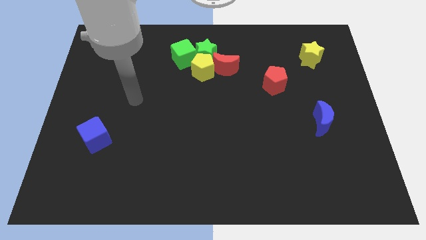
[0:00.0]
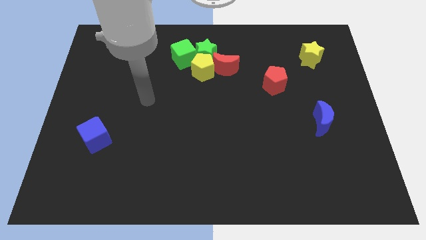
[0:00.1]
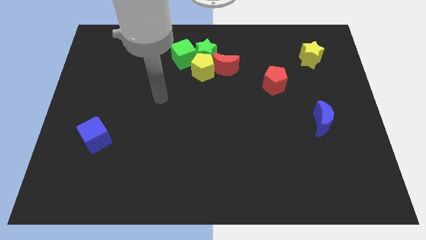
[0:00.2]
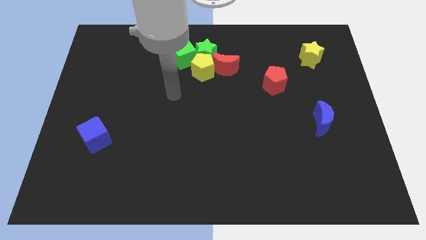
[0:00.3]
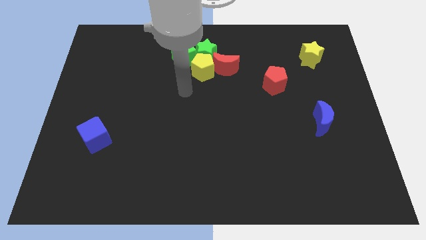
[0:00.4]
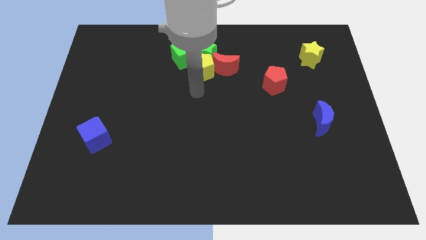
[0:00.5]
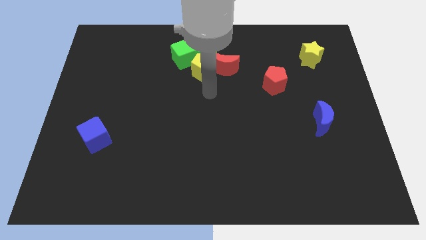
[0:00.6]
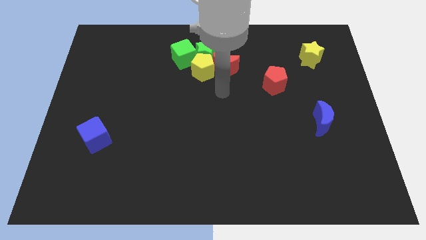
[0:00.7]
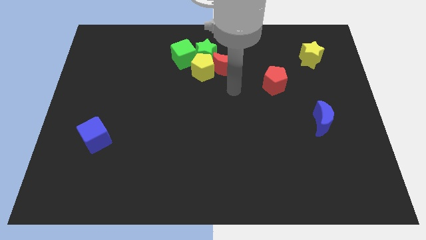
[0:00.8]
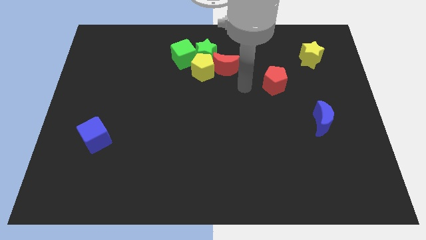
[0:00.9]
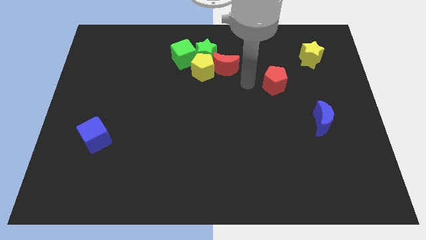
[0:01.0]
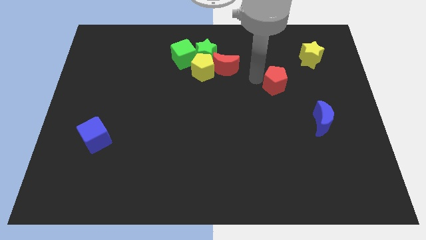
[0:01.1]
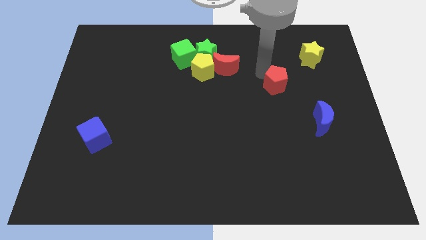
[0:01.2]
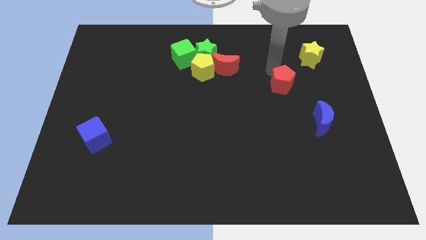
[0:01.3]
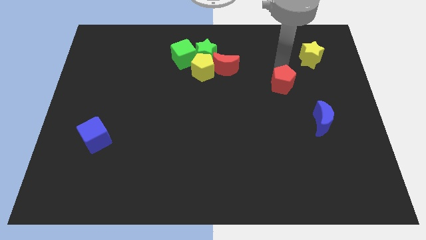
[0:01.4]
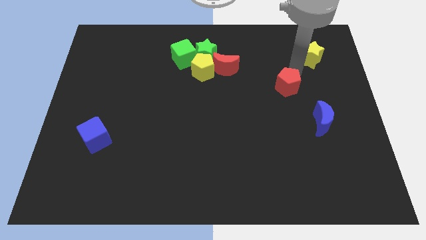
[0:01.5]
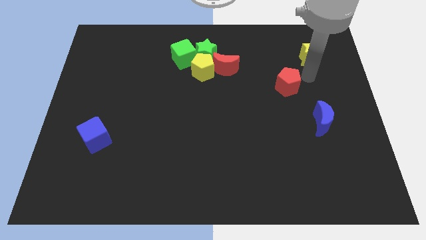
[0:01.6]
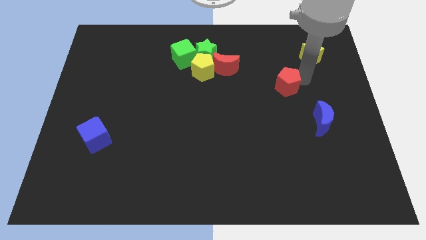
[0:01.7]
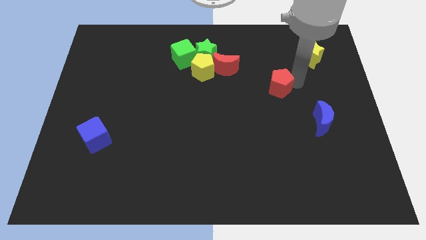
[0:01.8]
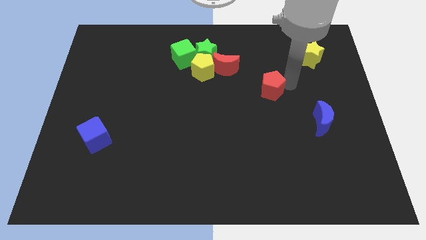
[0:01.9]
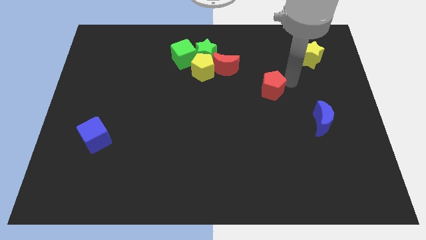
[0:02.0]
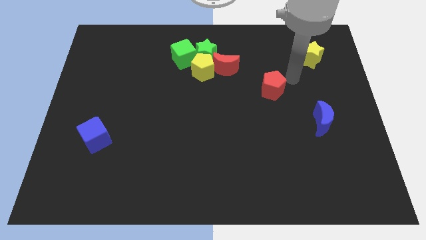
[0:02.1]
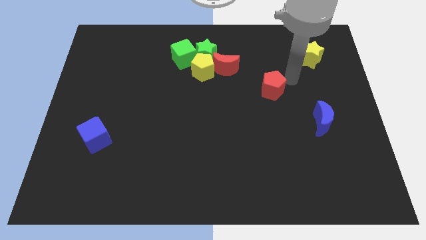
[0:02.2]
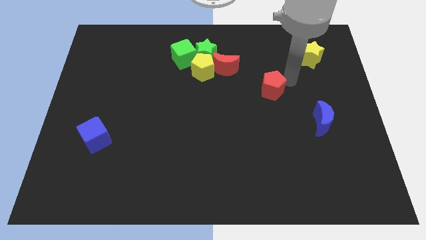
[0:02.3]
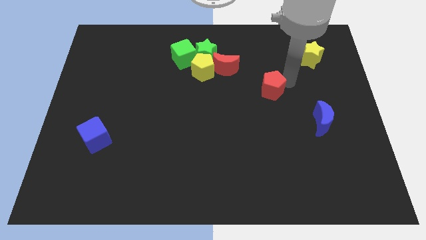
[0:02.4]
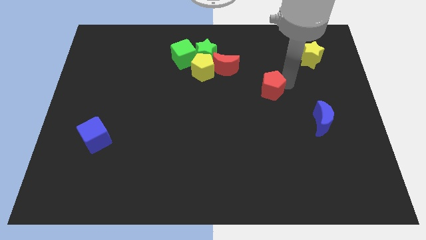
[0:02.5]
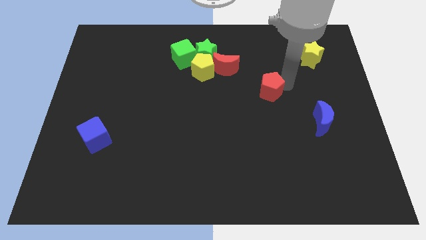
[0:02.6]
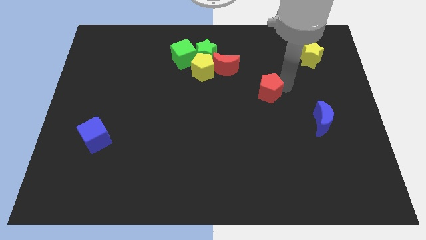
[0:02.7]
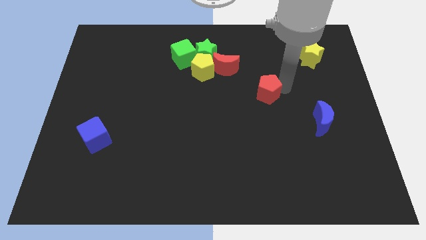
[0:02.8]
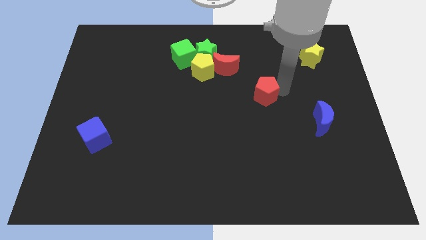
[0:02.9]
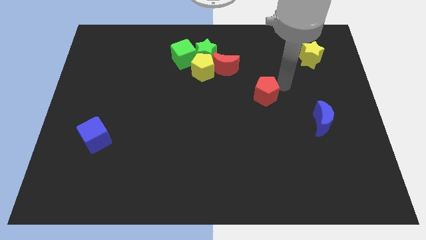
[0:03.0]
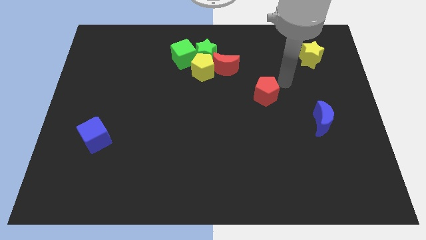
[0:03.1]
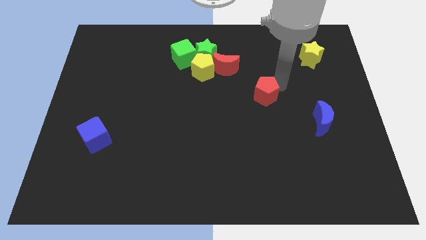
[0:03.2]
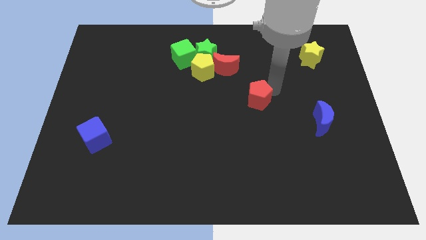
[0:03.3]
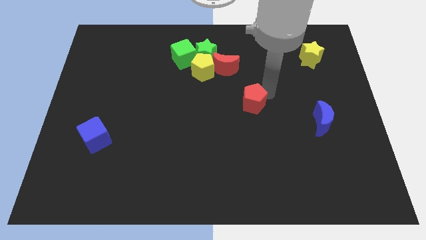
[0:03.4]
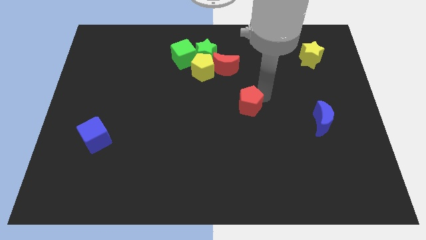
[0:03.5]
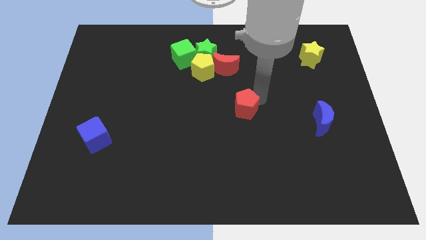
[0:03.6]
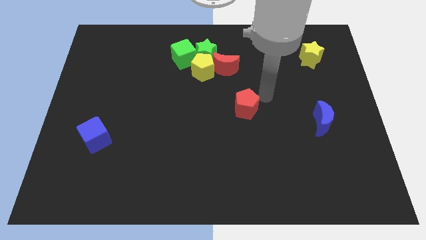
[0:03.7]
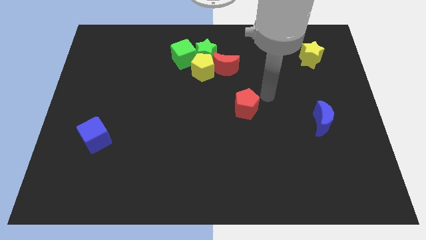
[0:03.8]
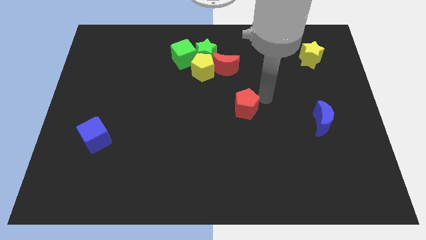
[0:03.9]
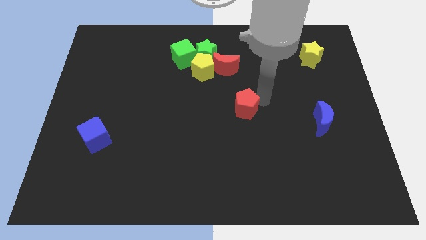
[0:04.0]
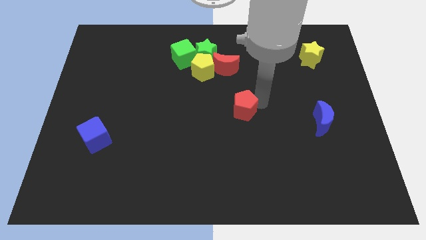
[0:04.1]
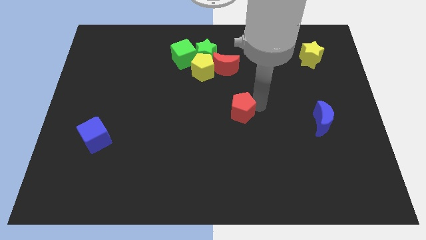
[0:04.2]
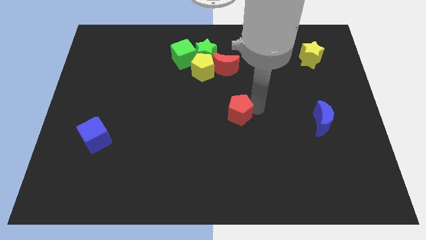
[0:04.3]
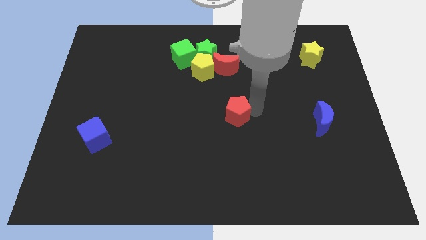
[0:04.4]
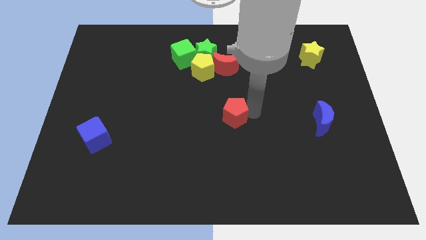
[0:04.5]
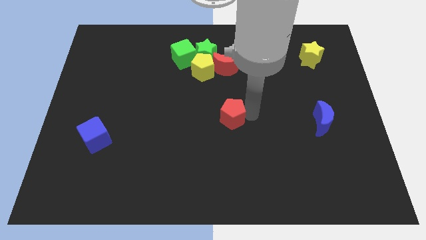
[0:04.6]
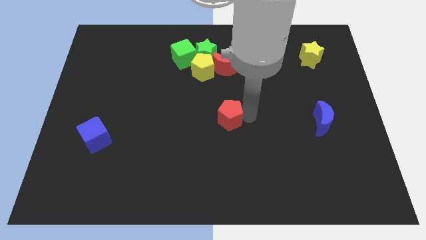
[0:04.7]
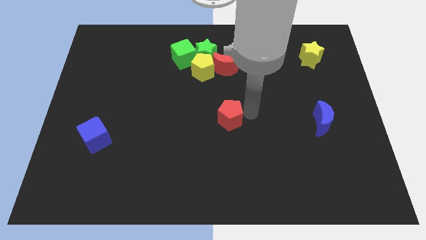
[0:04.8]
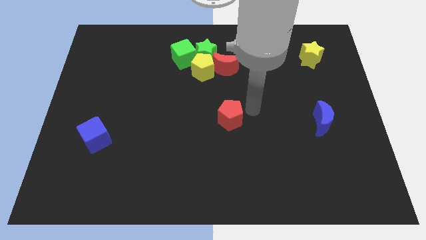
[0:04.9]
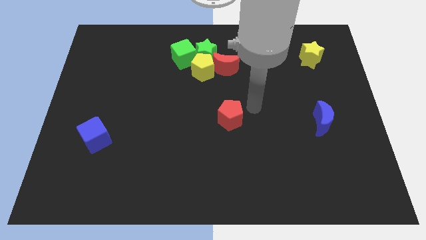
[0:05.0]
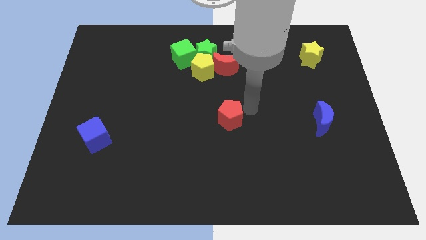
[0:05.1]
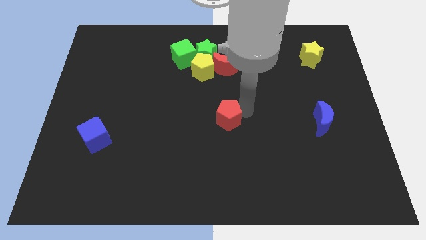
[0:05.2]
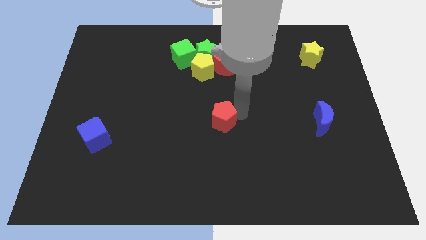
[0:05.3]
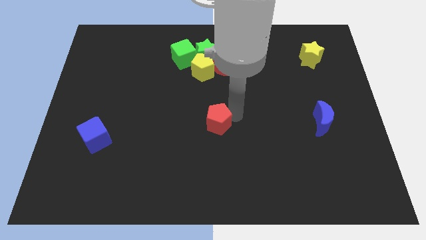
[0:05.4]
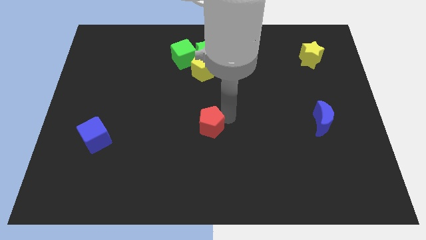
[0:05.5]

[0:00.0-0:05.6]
move the red pentagon downwards and left diagonally

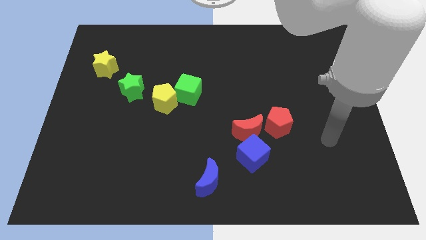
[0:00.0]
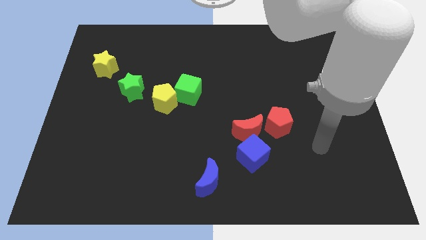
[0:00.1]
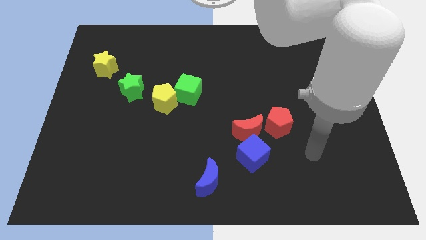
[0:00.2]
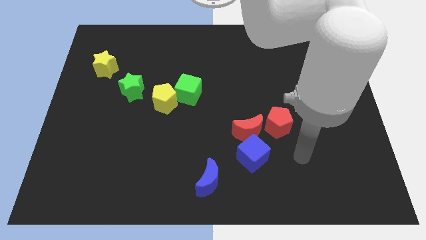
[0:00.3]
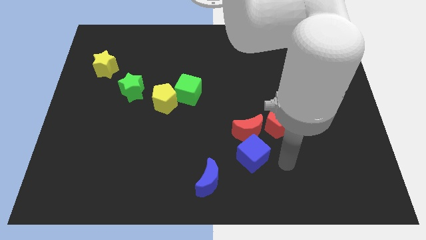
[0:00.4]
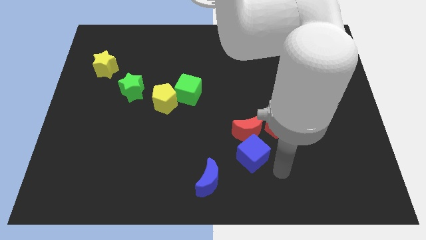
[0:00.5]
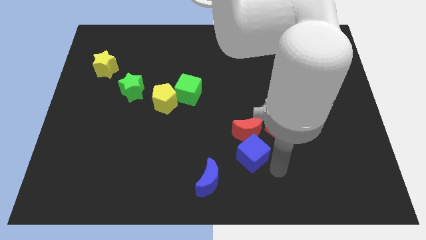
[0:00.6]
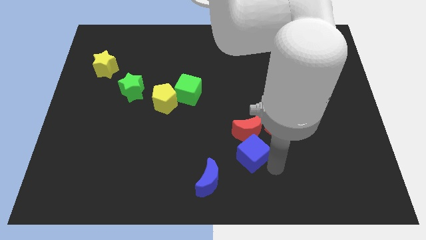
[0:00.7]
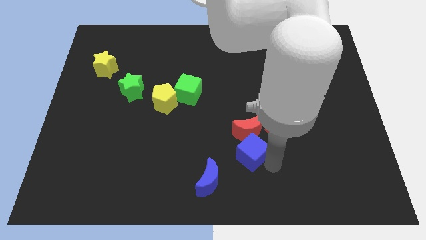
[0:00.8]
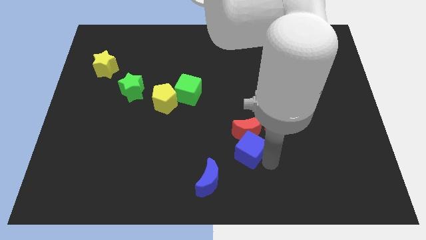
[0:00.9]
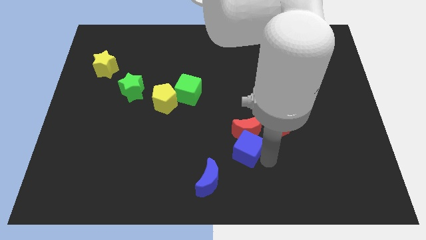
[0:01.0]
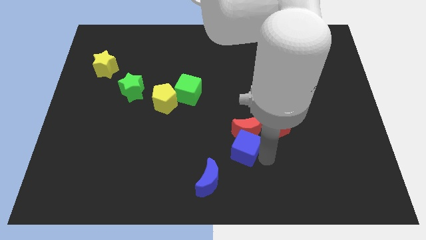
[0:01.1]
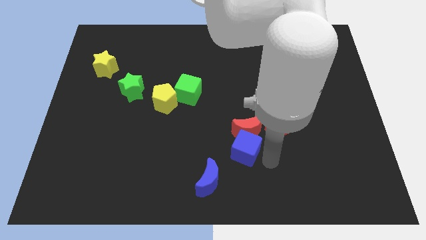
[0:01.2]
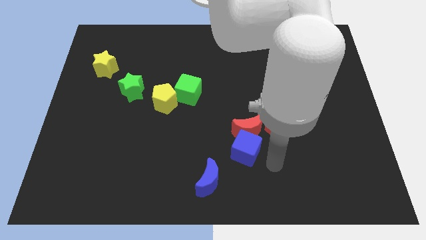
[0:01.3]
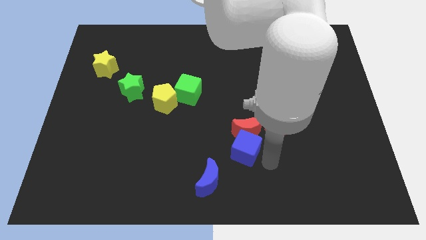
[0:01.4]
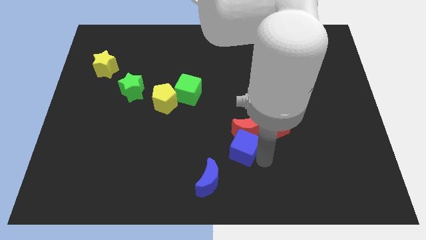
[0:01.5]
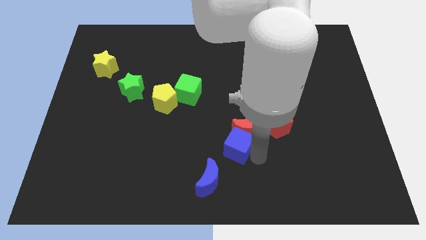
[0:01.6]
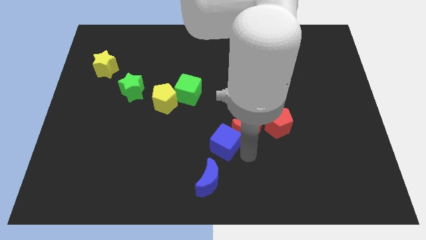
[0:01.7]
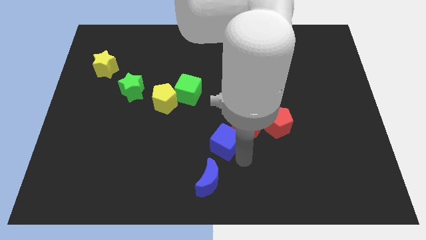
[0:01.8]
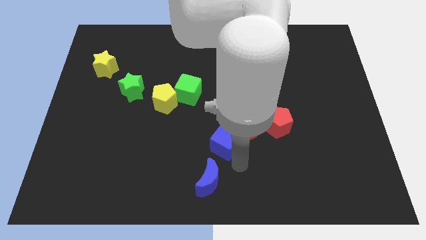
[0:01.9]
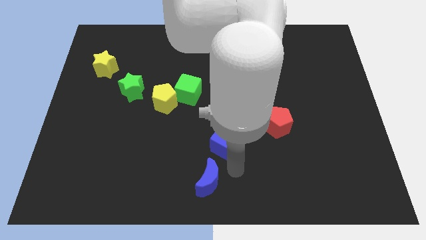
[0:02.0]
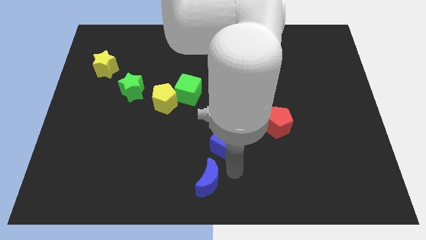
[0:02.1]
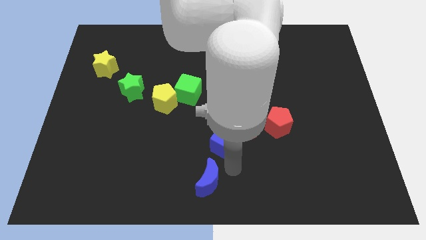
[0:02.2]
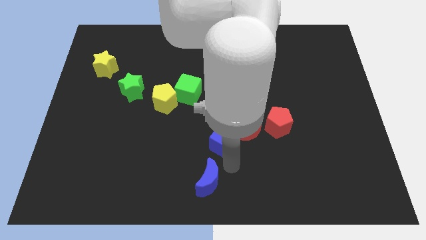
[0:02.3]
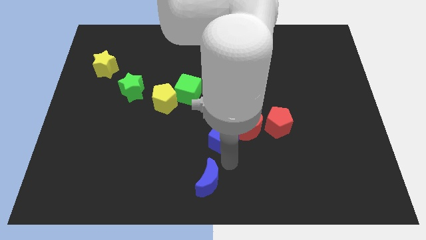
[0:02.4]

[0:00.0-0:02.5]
push the blue cube diagonally upwards and left a little
